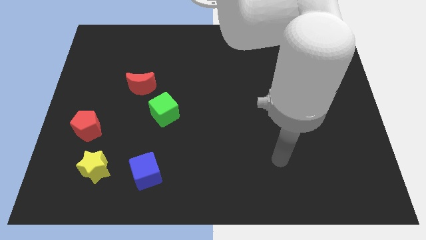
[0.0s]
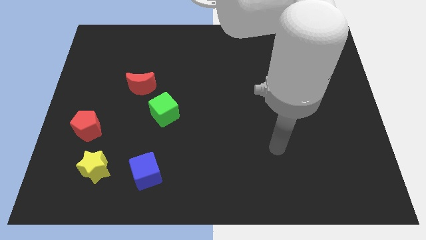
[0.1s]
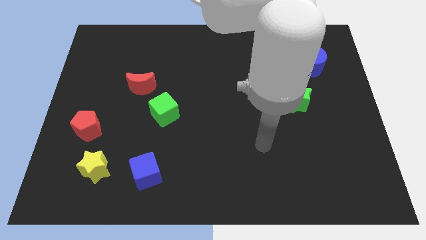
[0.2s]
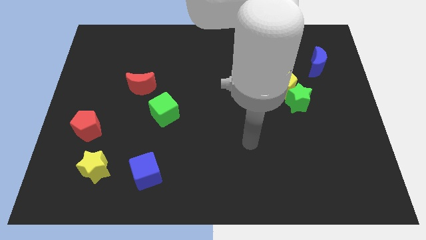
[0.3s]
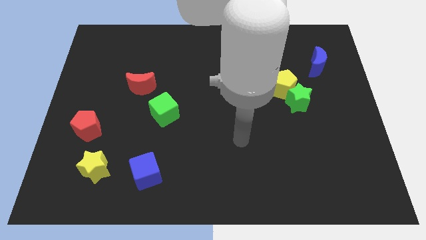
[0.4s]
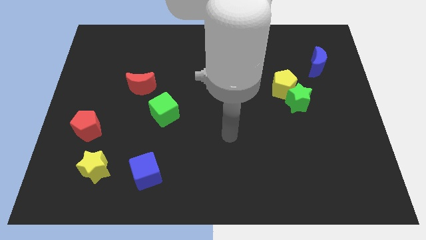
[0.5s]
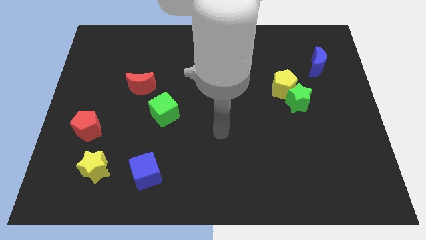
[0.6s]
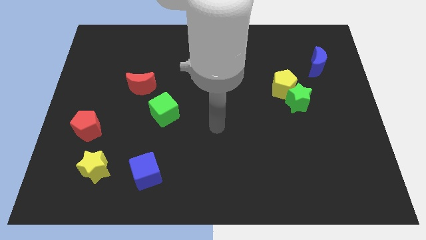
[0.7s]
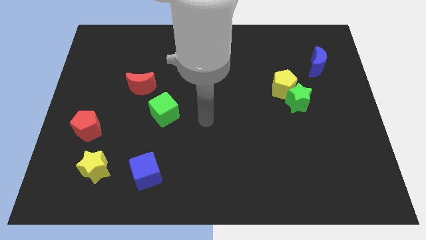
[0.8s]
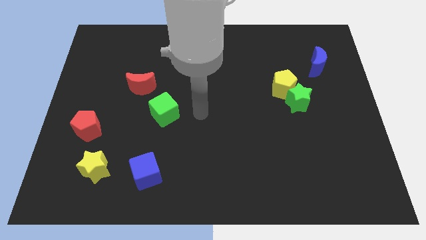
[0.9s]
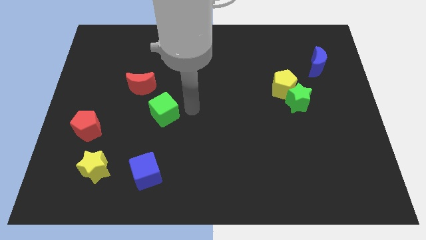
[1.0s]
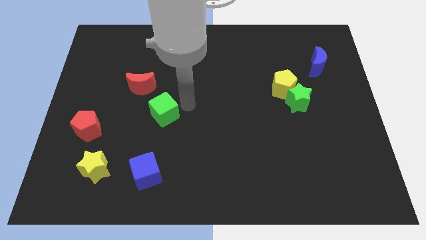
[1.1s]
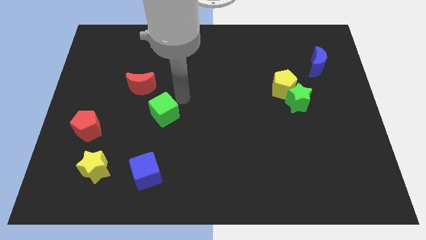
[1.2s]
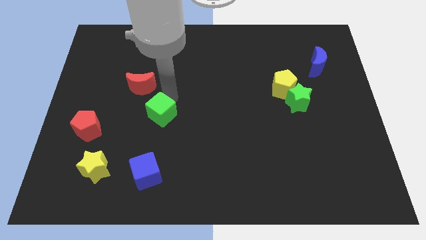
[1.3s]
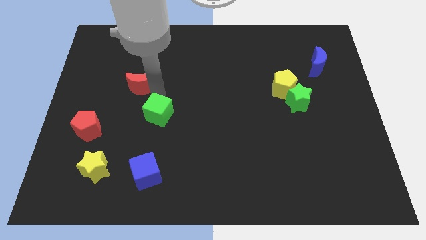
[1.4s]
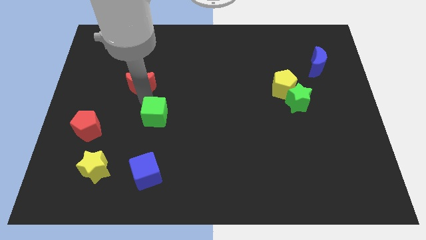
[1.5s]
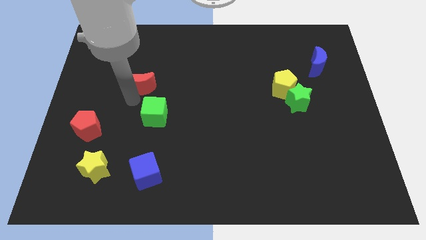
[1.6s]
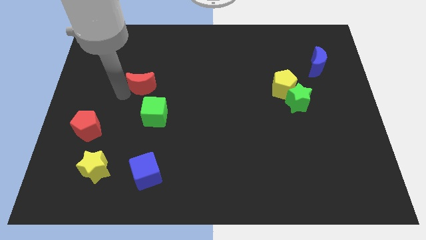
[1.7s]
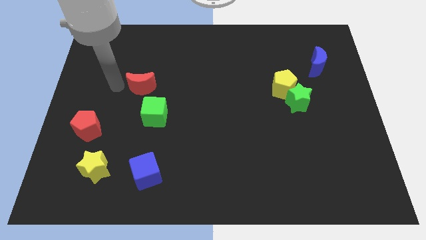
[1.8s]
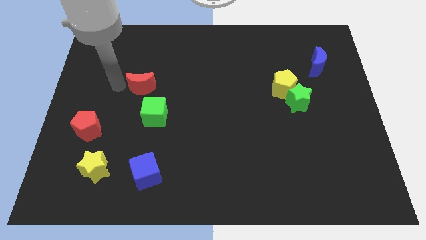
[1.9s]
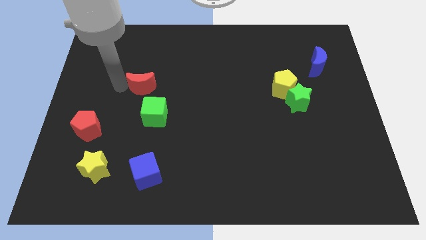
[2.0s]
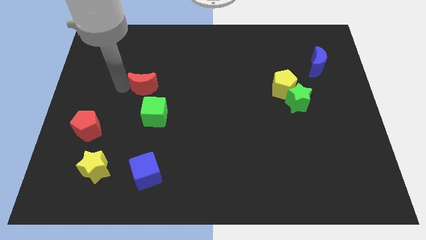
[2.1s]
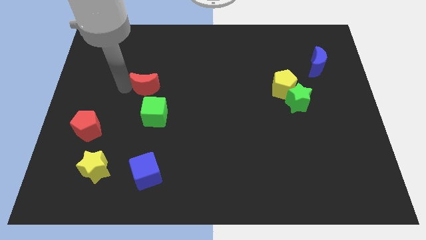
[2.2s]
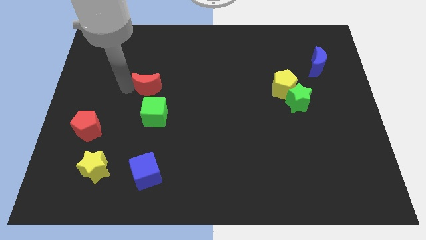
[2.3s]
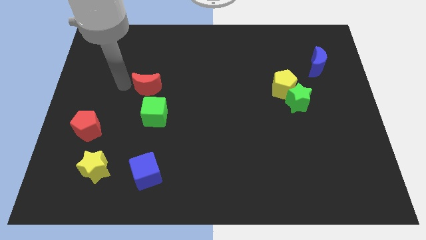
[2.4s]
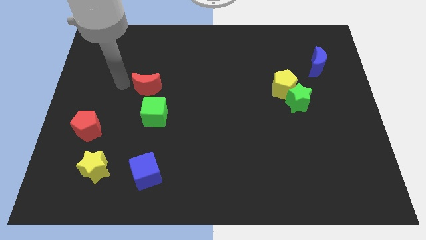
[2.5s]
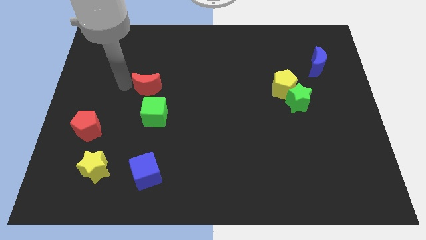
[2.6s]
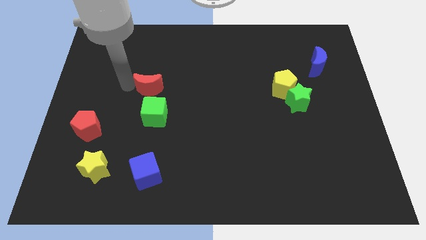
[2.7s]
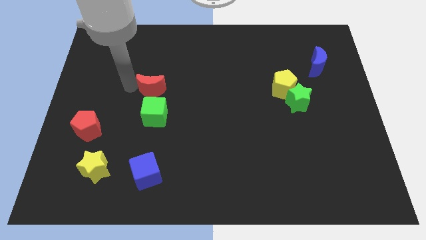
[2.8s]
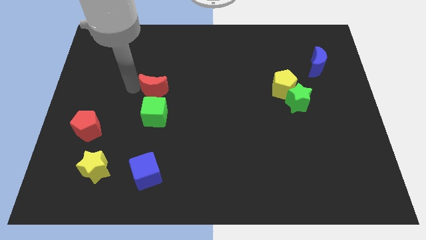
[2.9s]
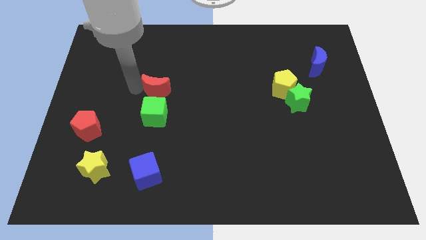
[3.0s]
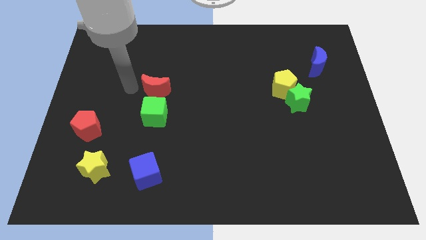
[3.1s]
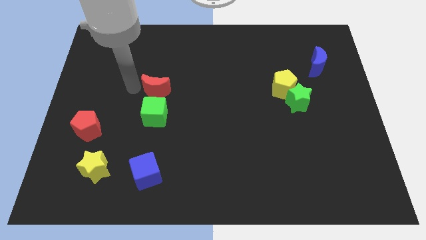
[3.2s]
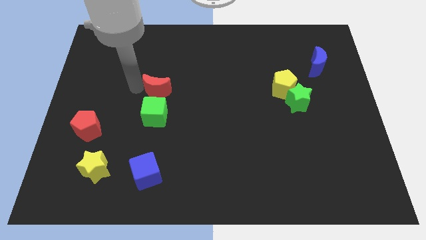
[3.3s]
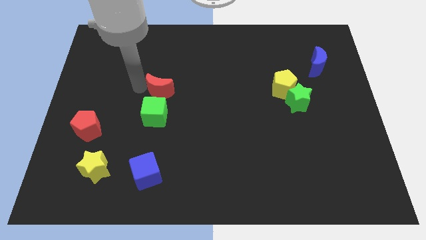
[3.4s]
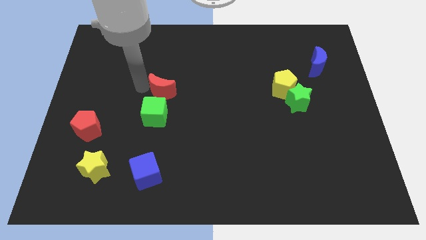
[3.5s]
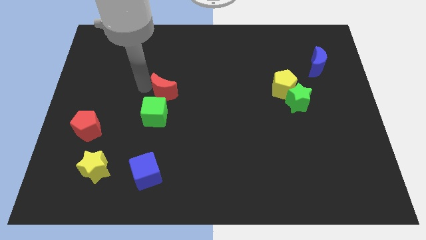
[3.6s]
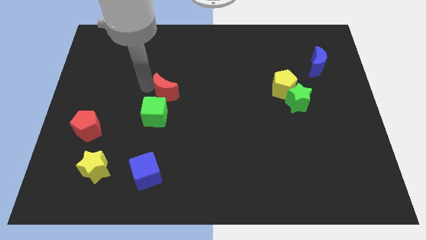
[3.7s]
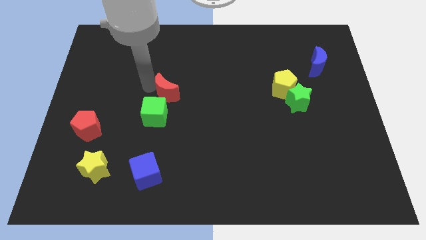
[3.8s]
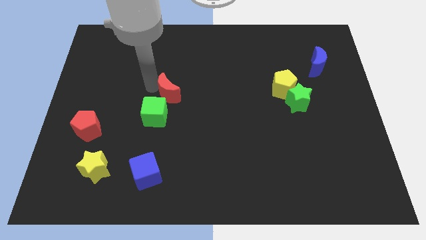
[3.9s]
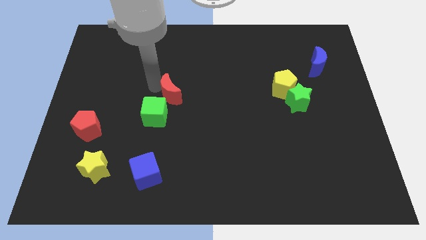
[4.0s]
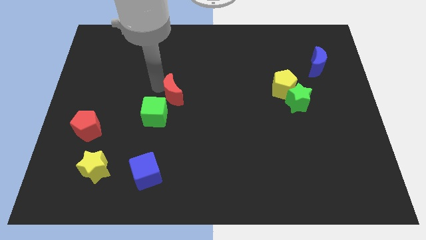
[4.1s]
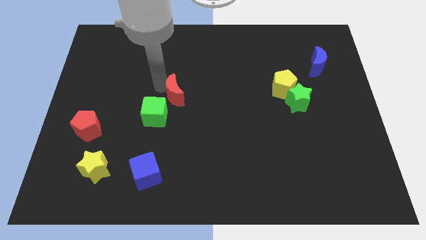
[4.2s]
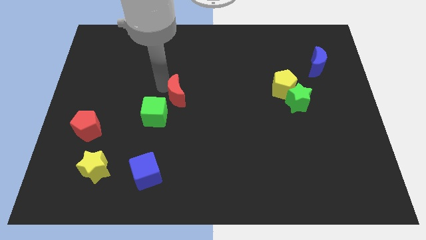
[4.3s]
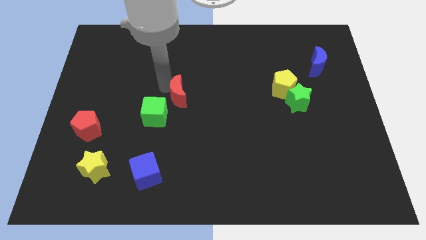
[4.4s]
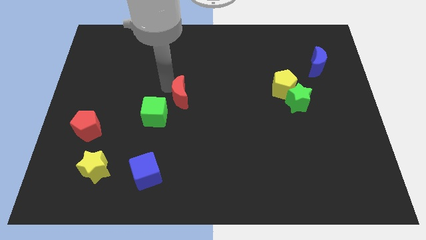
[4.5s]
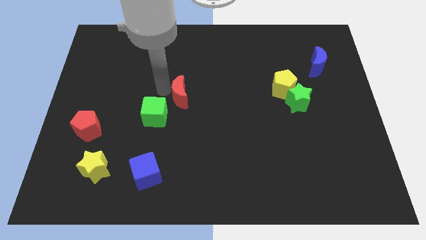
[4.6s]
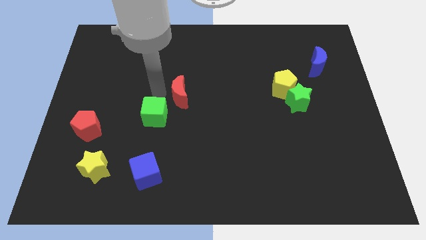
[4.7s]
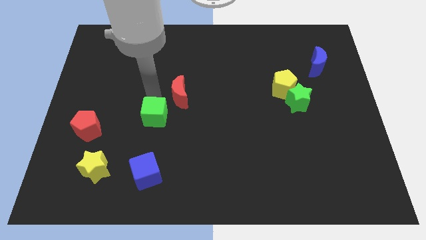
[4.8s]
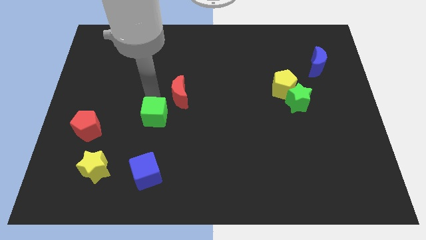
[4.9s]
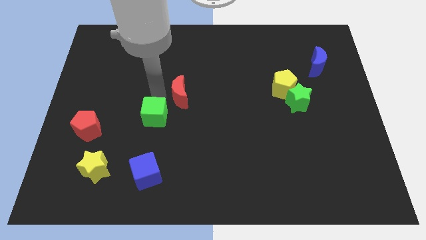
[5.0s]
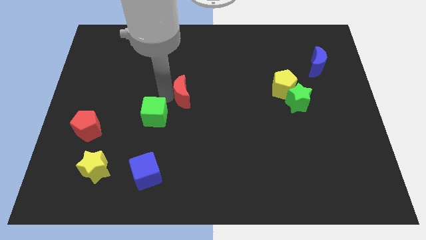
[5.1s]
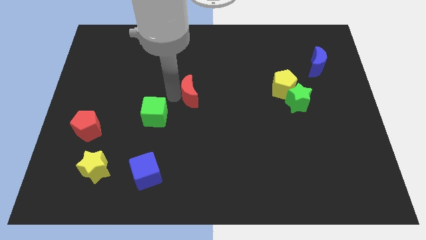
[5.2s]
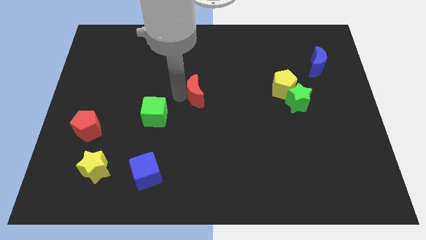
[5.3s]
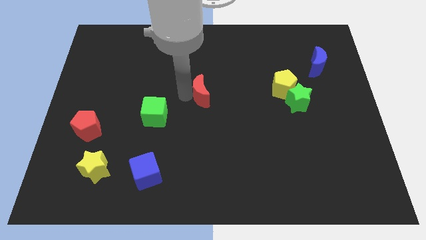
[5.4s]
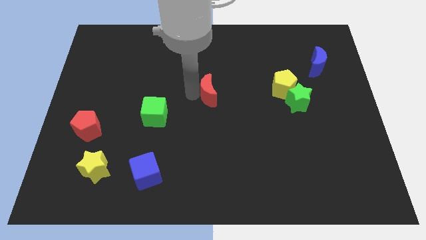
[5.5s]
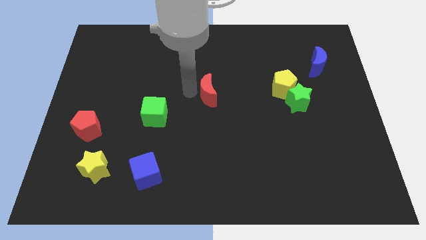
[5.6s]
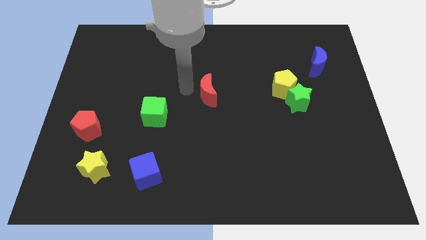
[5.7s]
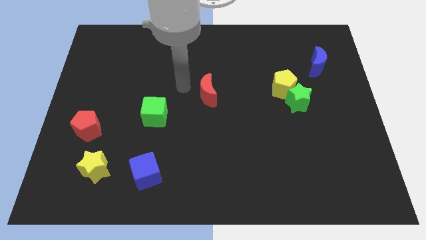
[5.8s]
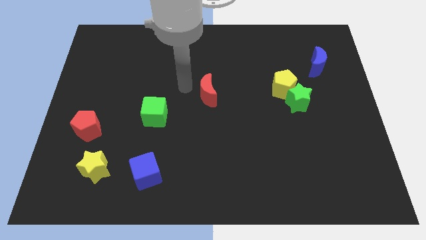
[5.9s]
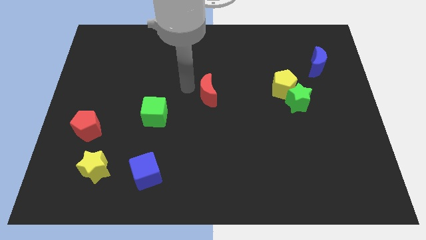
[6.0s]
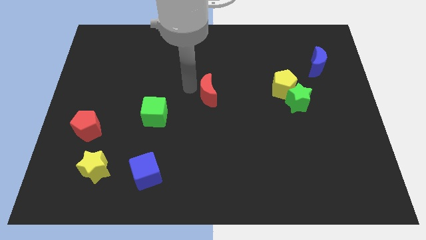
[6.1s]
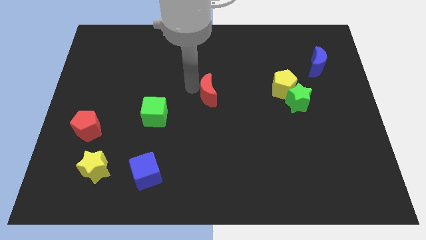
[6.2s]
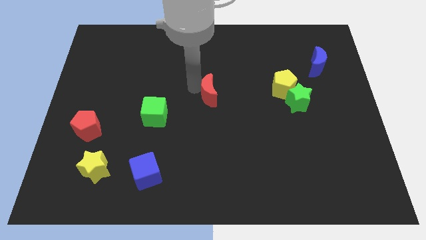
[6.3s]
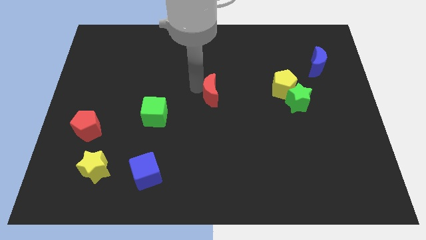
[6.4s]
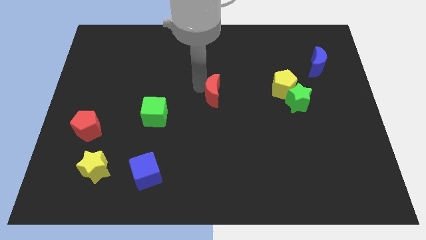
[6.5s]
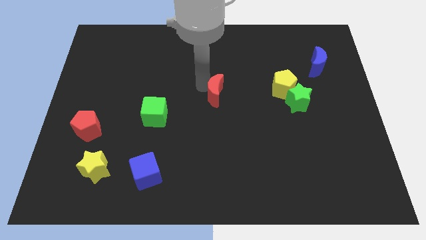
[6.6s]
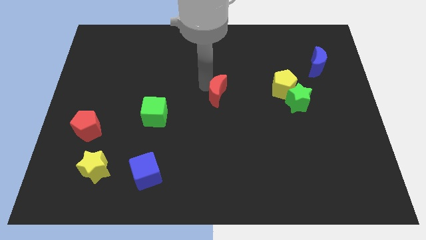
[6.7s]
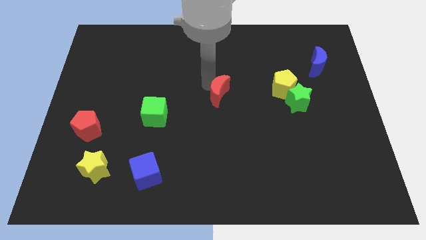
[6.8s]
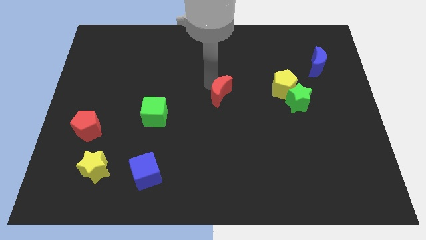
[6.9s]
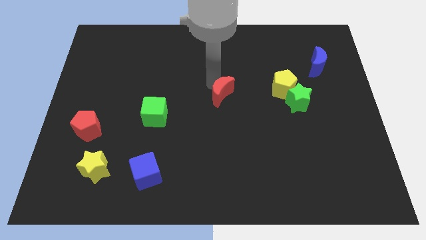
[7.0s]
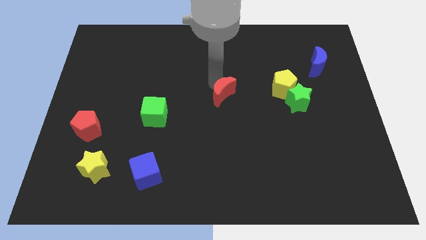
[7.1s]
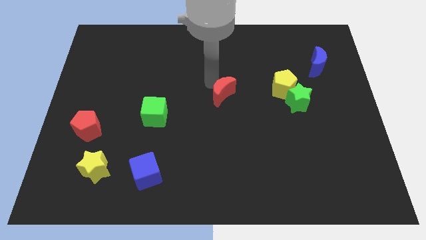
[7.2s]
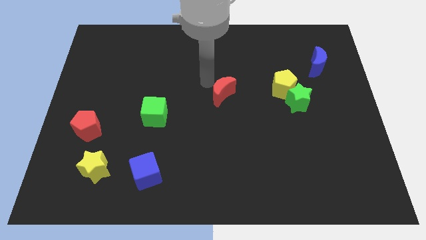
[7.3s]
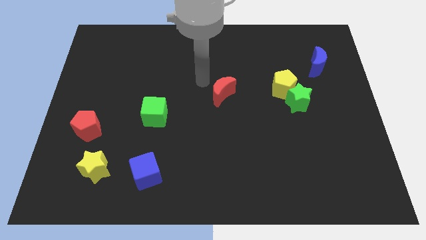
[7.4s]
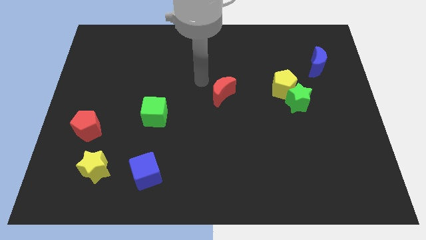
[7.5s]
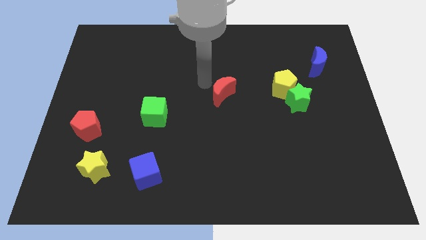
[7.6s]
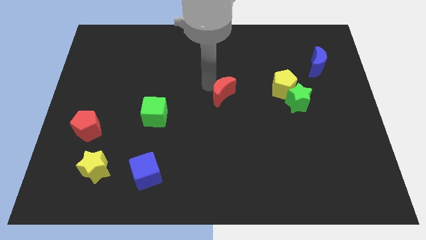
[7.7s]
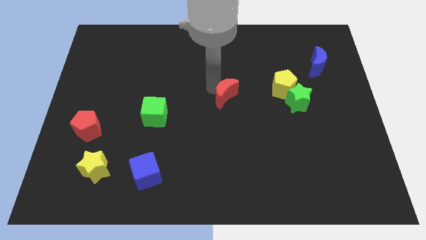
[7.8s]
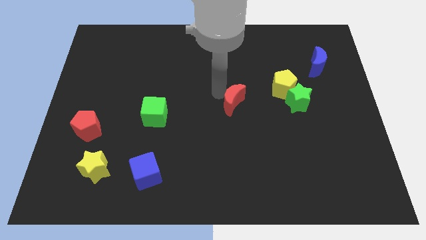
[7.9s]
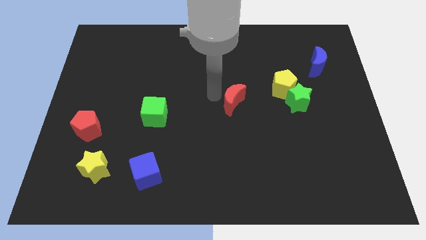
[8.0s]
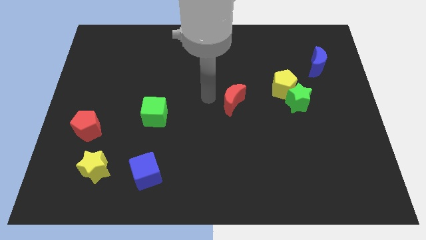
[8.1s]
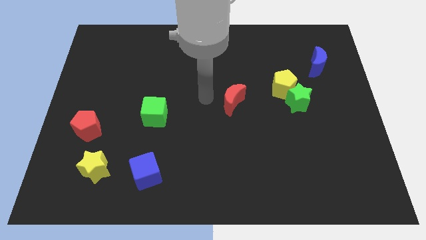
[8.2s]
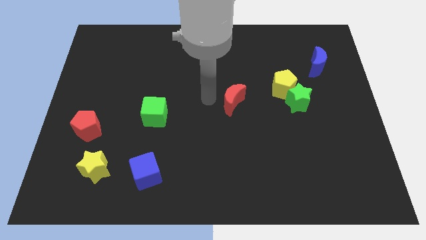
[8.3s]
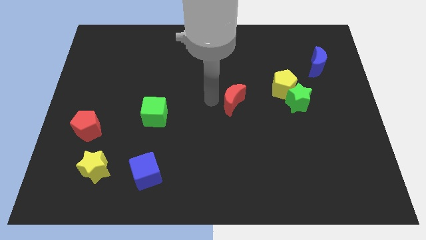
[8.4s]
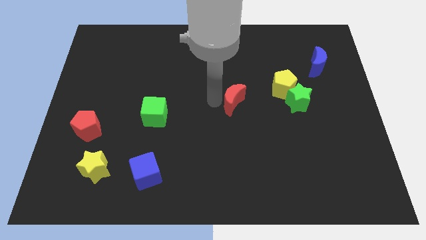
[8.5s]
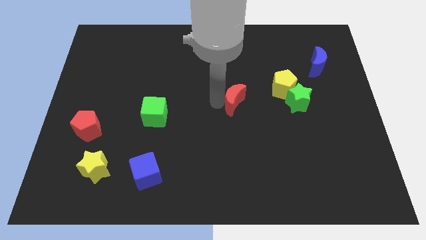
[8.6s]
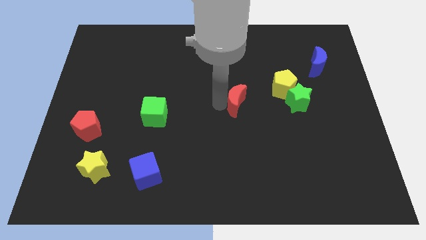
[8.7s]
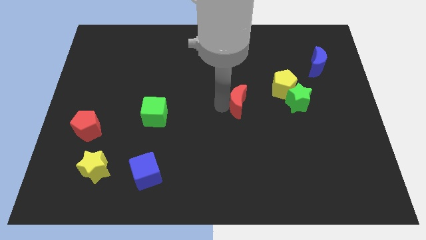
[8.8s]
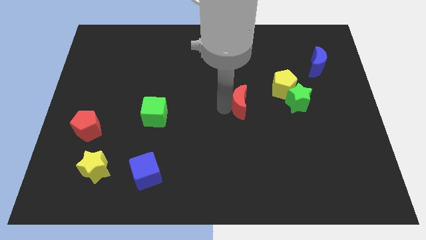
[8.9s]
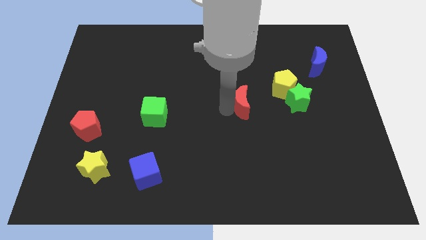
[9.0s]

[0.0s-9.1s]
move the red moon to the bottom left side of the yellow pentagon
